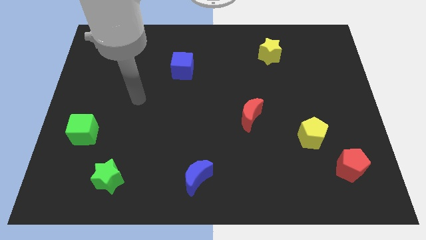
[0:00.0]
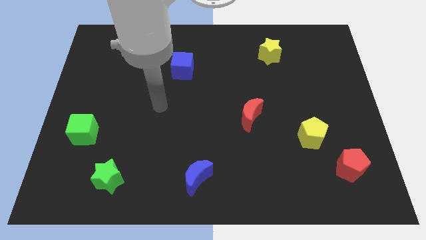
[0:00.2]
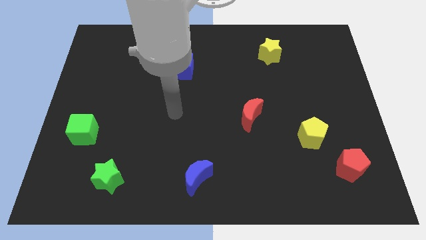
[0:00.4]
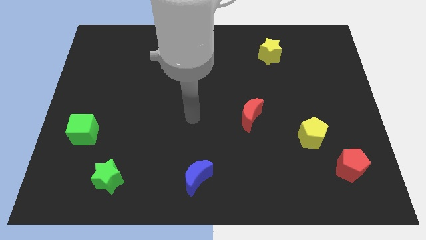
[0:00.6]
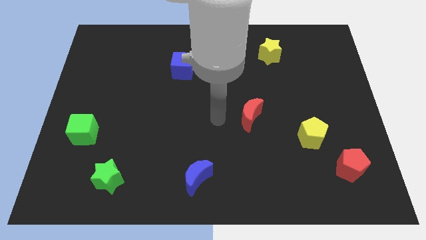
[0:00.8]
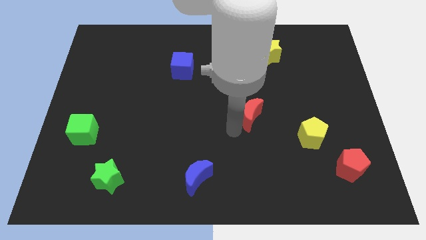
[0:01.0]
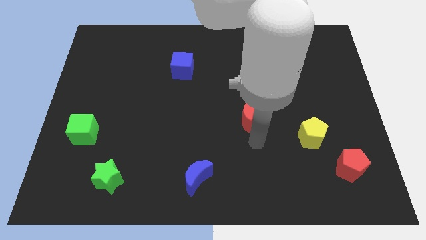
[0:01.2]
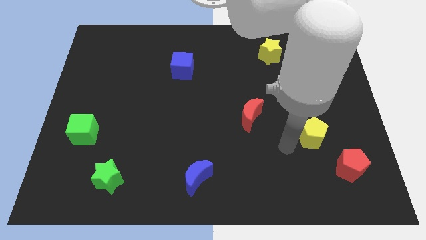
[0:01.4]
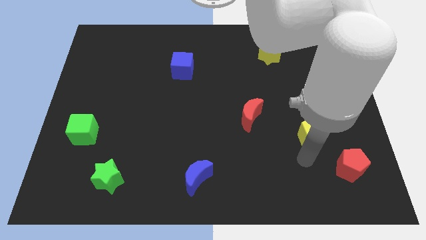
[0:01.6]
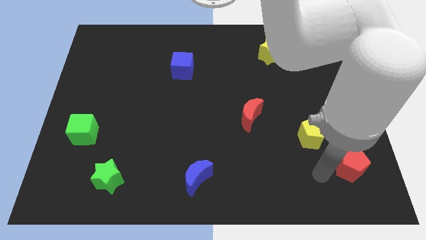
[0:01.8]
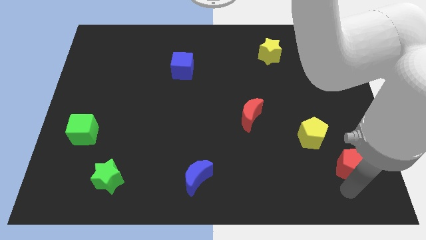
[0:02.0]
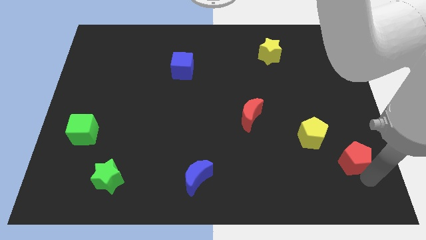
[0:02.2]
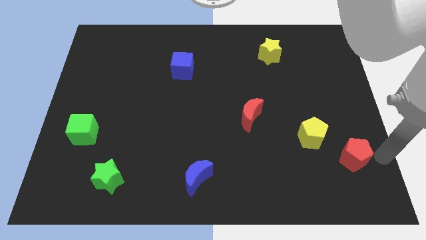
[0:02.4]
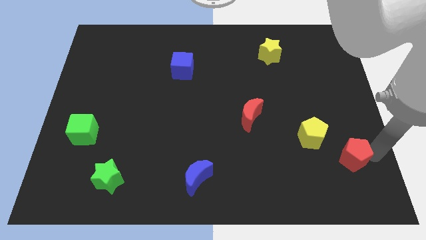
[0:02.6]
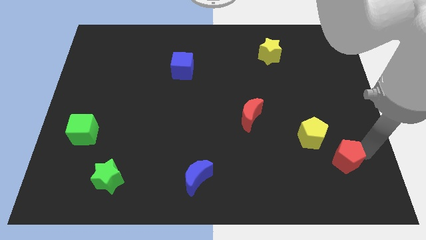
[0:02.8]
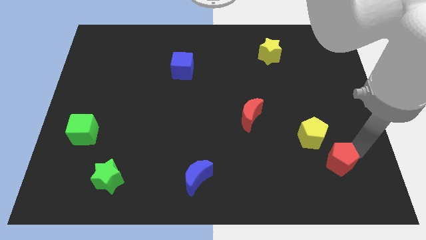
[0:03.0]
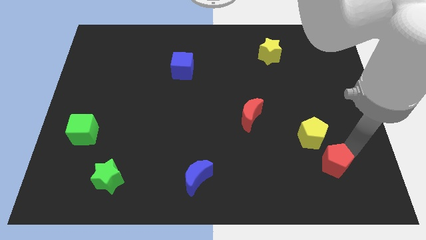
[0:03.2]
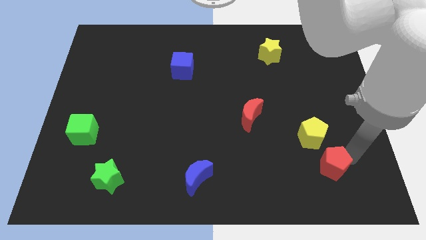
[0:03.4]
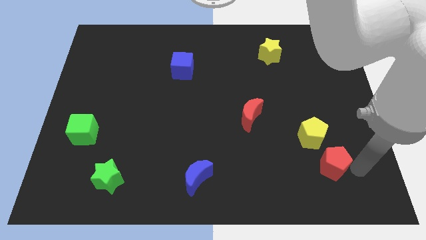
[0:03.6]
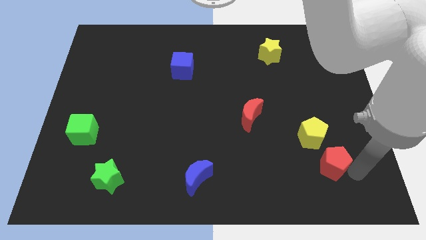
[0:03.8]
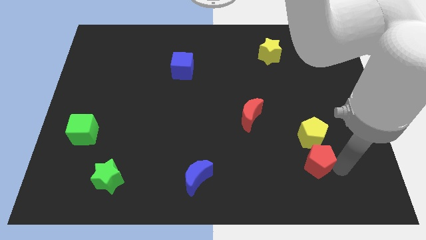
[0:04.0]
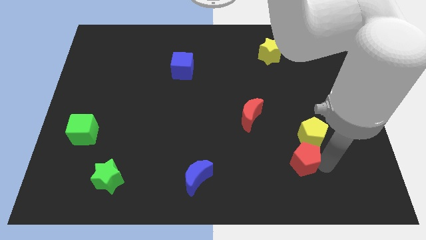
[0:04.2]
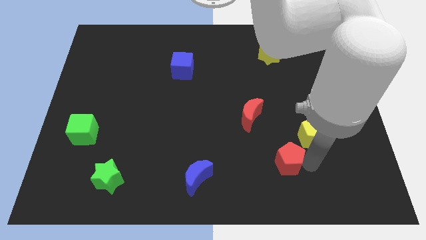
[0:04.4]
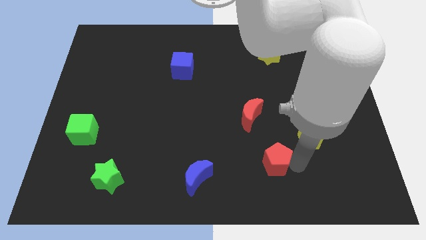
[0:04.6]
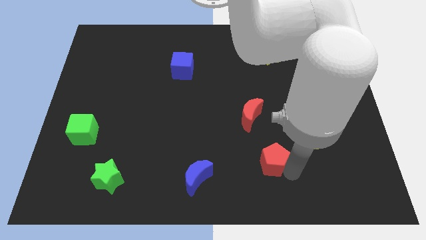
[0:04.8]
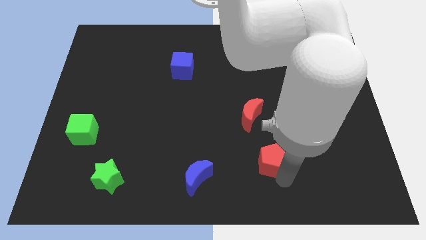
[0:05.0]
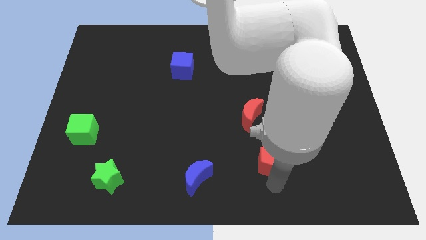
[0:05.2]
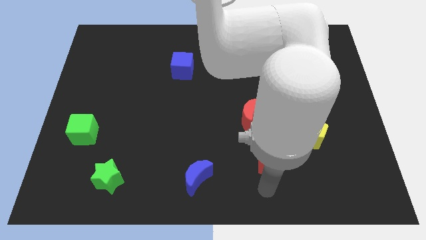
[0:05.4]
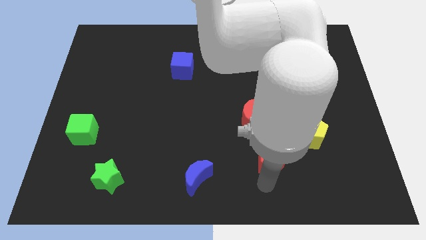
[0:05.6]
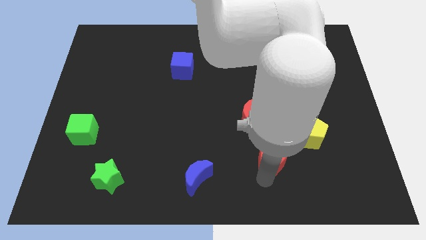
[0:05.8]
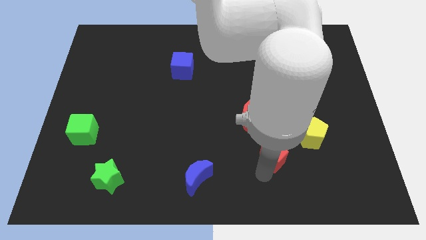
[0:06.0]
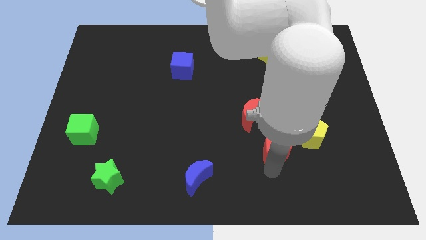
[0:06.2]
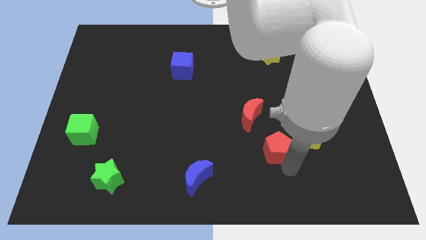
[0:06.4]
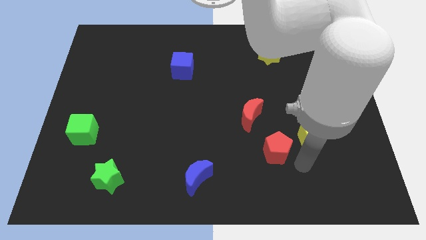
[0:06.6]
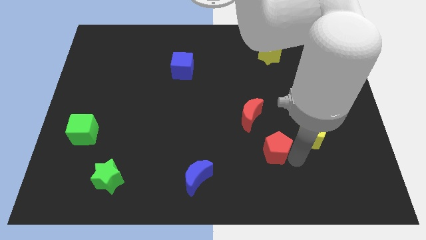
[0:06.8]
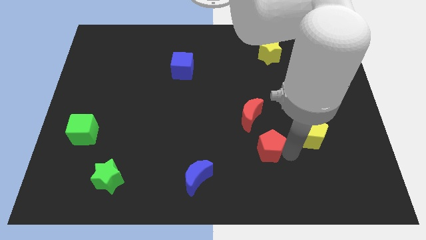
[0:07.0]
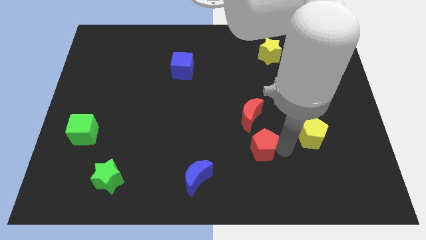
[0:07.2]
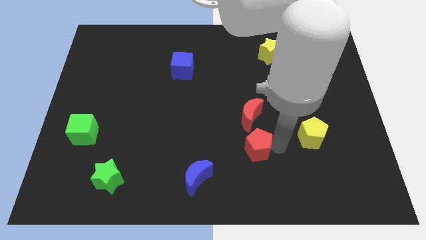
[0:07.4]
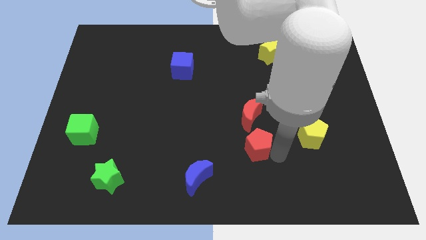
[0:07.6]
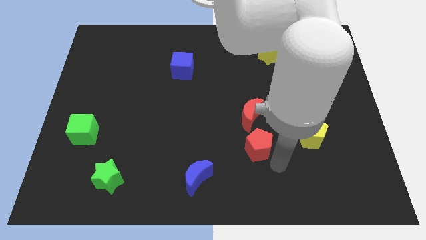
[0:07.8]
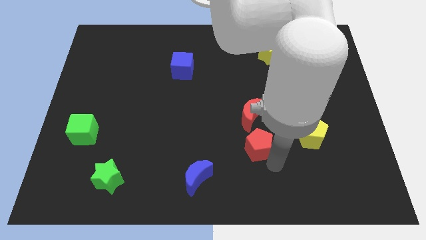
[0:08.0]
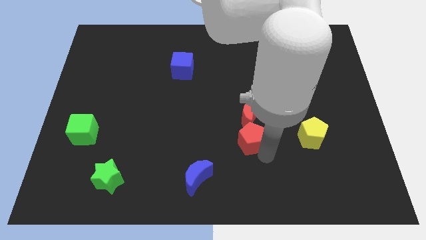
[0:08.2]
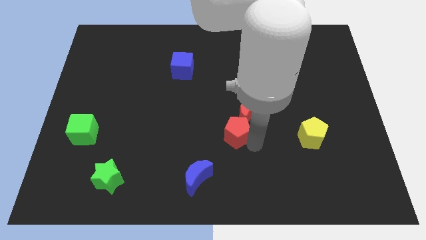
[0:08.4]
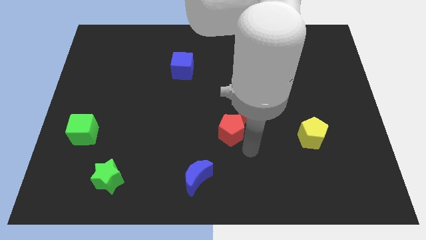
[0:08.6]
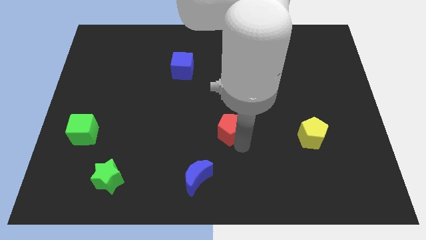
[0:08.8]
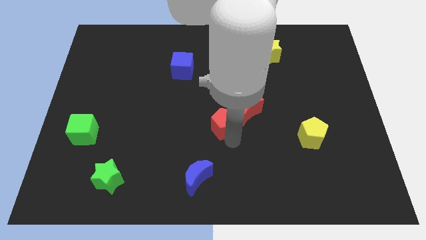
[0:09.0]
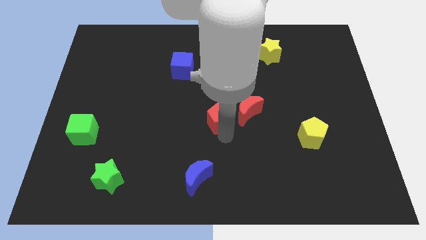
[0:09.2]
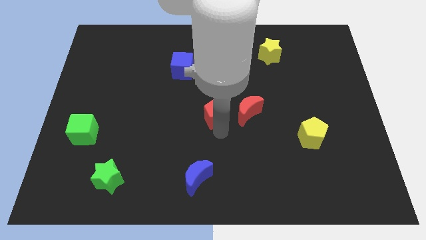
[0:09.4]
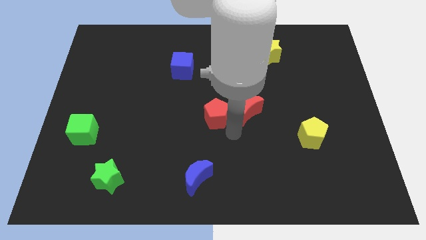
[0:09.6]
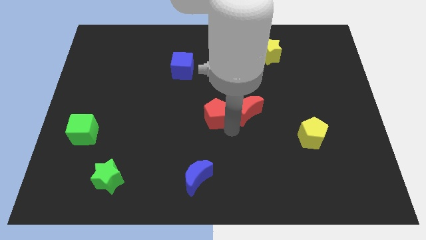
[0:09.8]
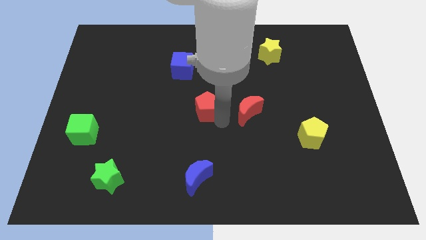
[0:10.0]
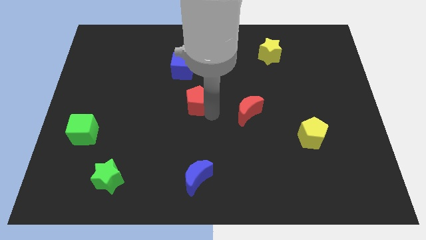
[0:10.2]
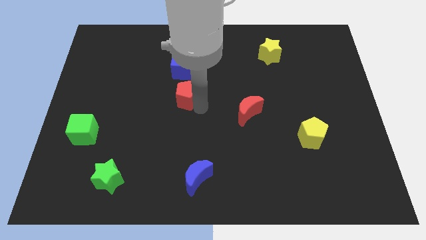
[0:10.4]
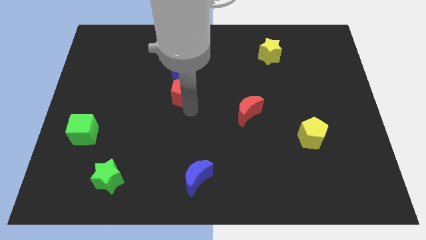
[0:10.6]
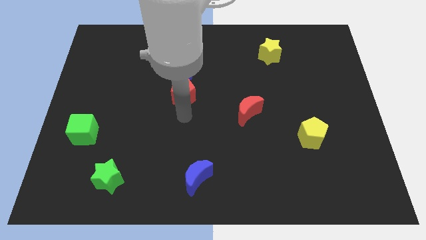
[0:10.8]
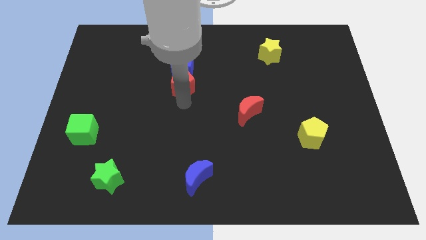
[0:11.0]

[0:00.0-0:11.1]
move the red pentagon next to the blue cube

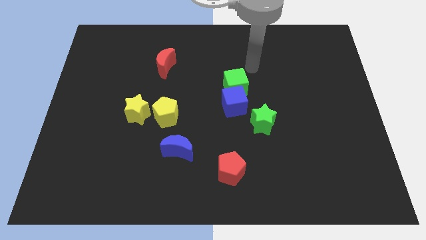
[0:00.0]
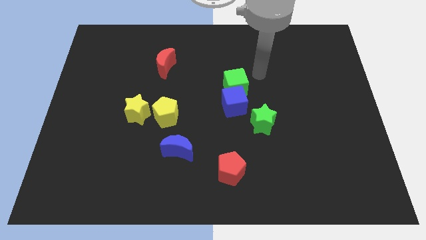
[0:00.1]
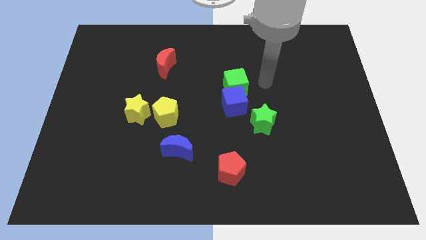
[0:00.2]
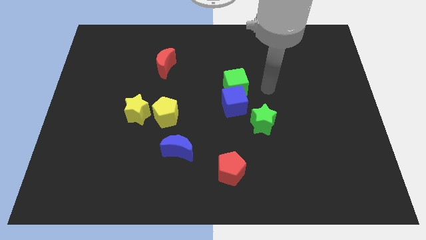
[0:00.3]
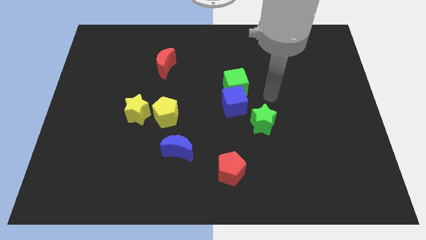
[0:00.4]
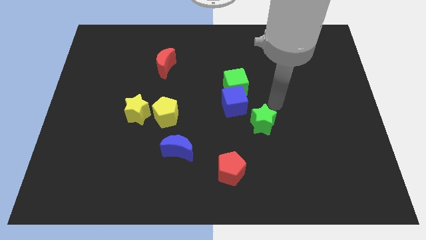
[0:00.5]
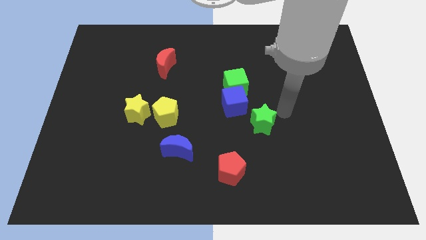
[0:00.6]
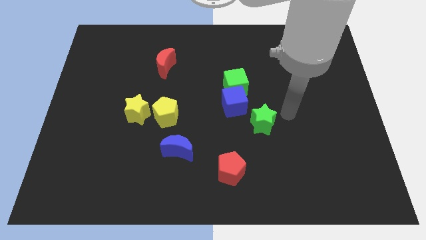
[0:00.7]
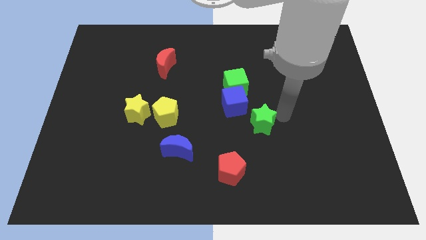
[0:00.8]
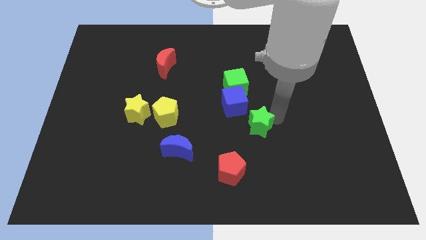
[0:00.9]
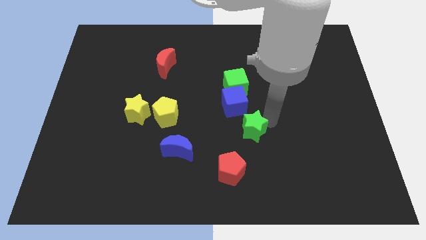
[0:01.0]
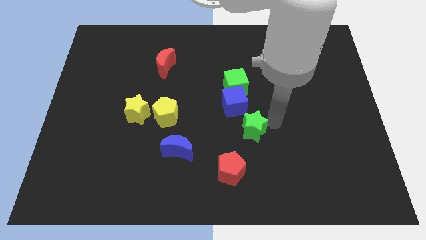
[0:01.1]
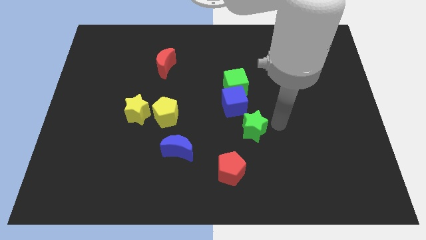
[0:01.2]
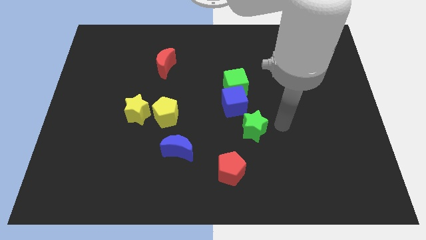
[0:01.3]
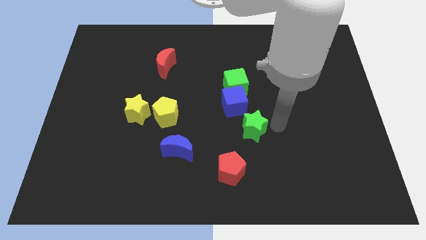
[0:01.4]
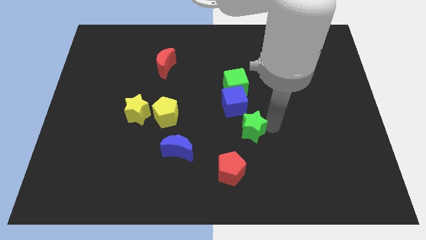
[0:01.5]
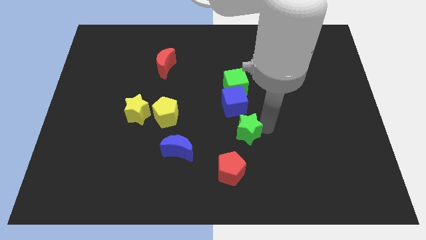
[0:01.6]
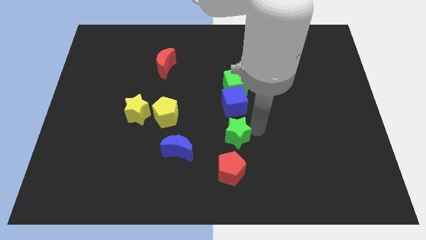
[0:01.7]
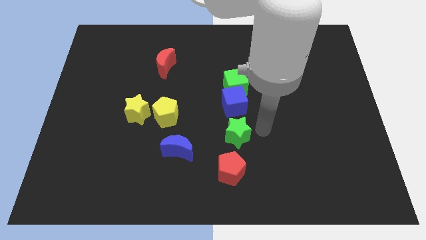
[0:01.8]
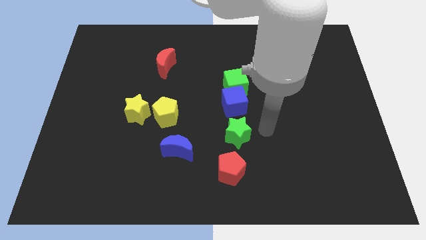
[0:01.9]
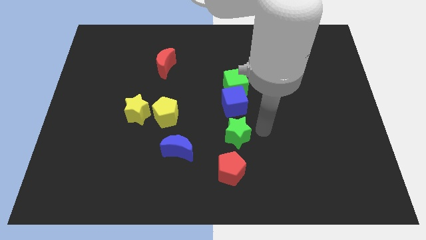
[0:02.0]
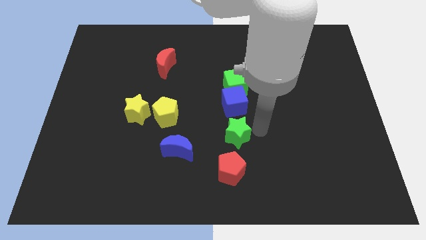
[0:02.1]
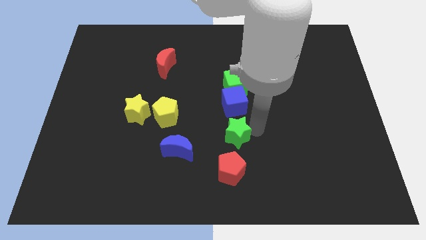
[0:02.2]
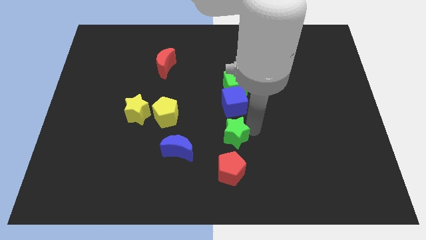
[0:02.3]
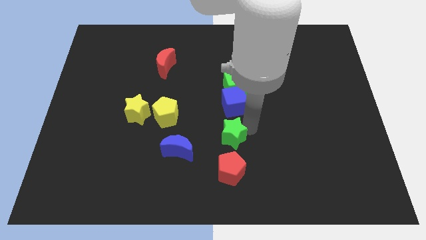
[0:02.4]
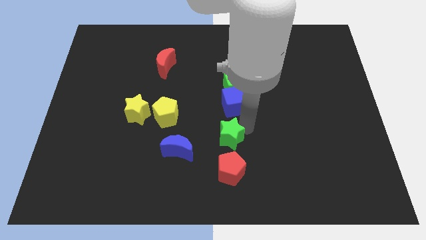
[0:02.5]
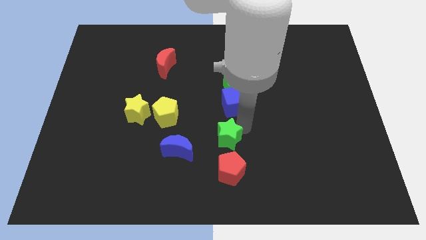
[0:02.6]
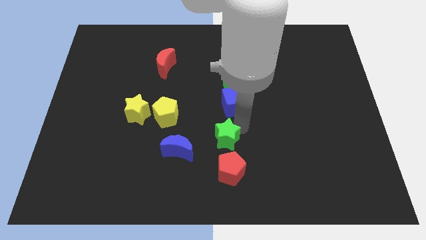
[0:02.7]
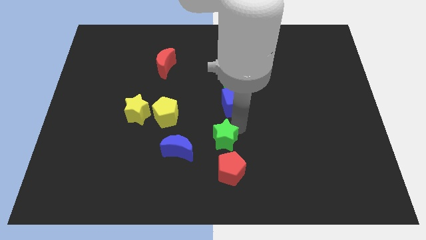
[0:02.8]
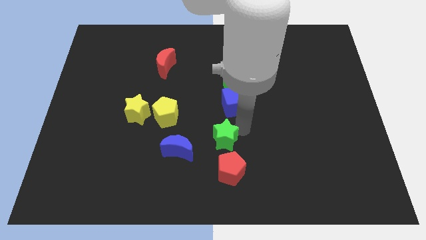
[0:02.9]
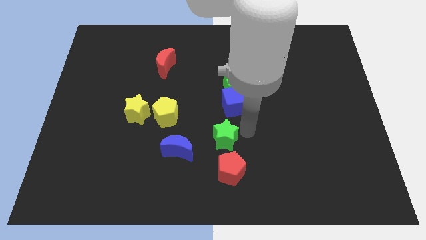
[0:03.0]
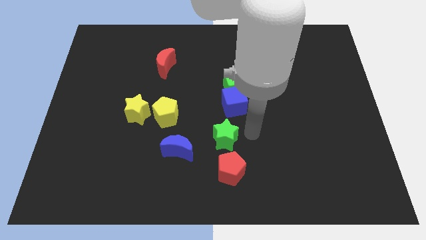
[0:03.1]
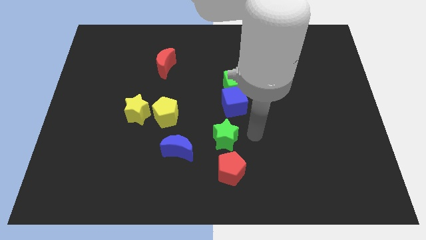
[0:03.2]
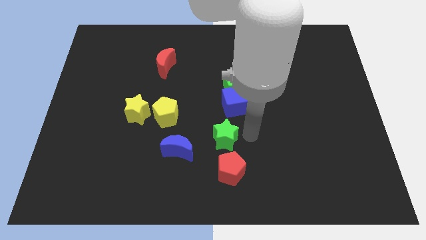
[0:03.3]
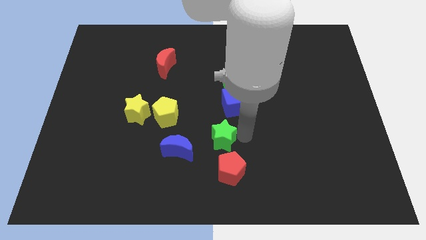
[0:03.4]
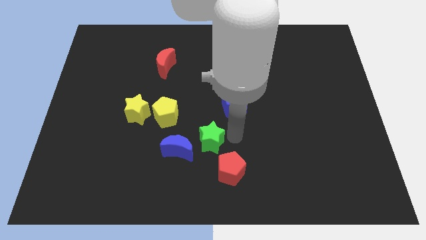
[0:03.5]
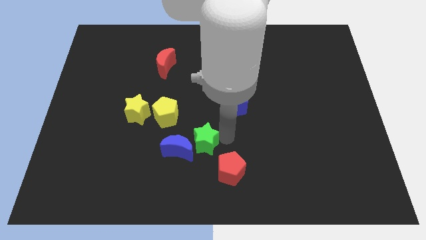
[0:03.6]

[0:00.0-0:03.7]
put the green star towards the blue moon
